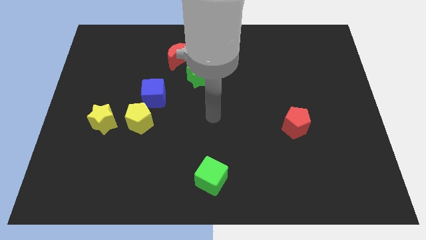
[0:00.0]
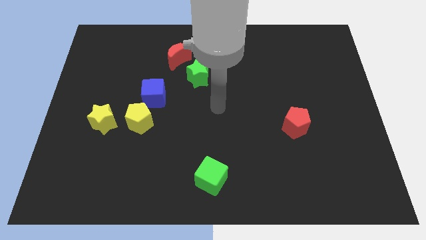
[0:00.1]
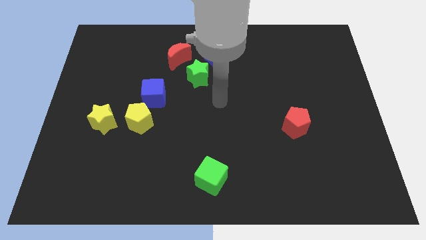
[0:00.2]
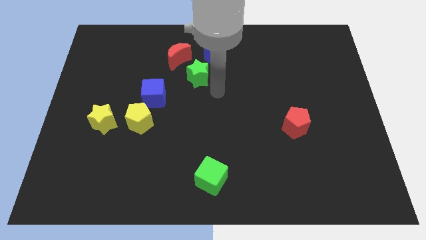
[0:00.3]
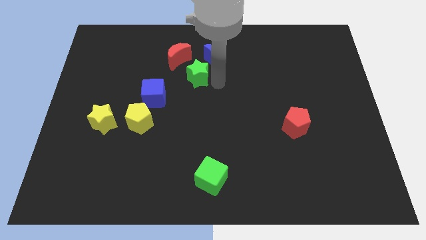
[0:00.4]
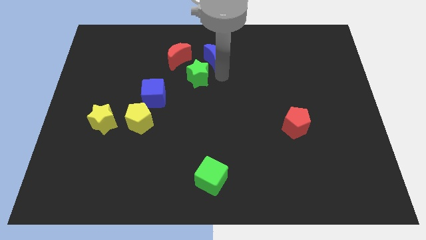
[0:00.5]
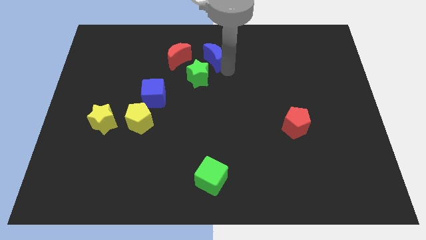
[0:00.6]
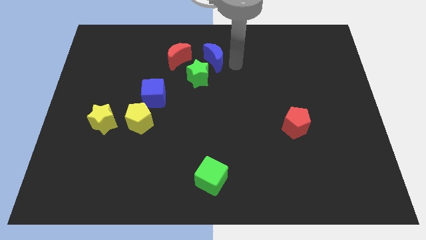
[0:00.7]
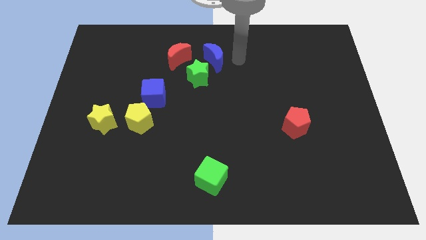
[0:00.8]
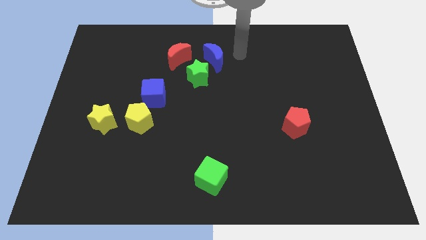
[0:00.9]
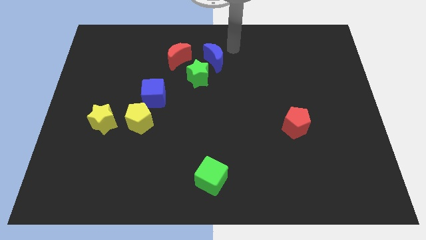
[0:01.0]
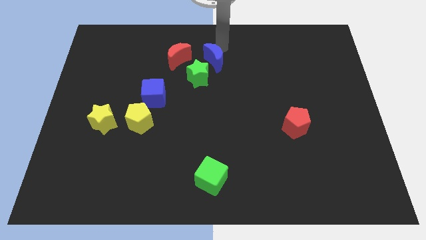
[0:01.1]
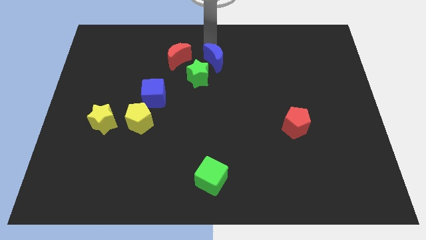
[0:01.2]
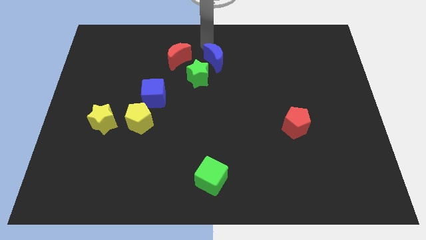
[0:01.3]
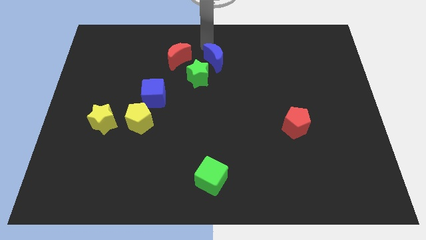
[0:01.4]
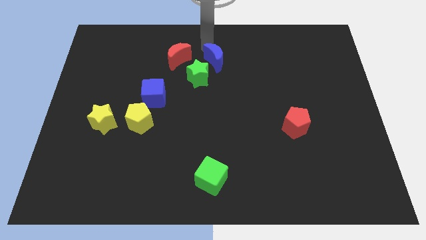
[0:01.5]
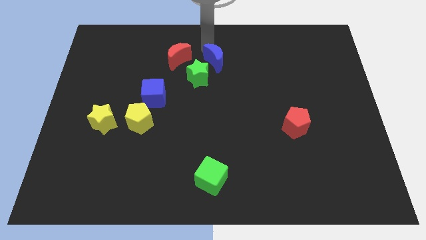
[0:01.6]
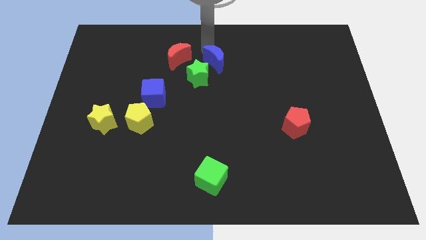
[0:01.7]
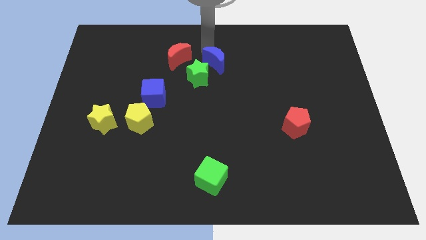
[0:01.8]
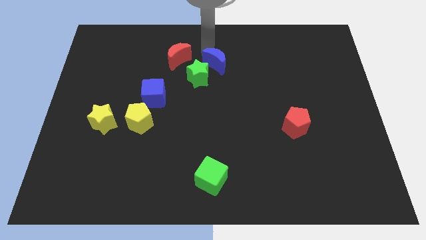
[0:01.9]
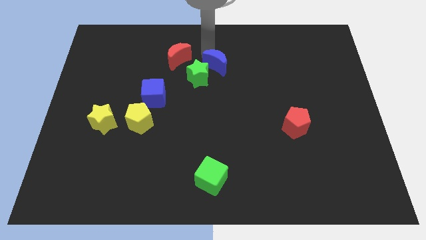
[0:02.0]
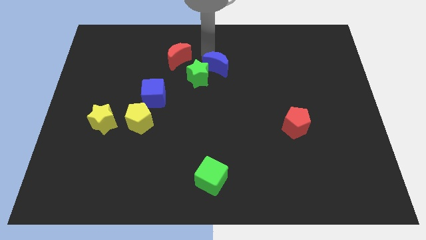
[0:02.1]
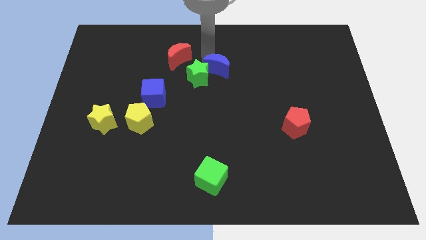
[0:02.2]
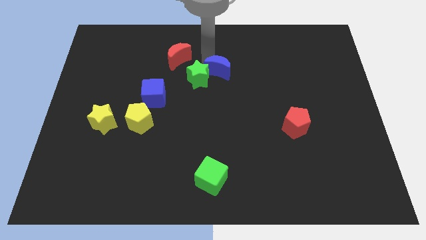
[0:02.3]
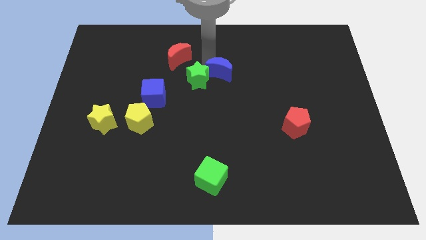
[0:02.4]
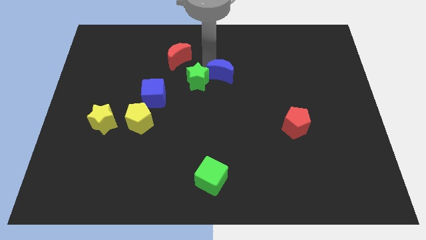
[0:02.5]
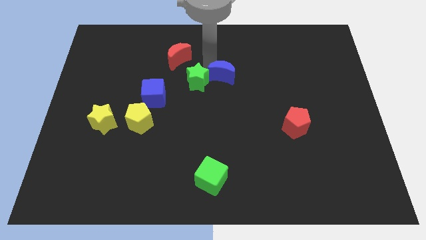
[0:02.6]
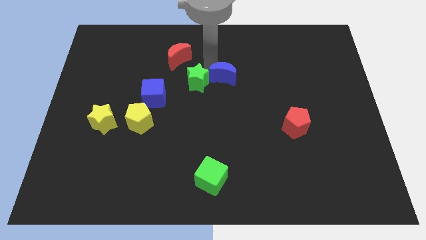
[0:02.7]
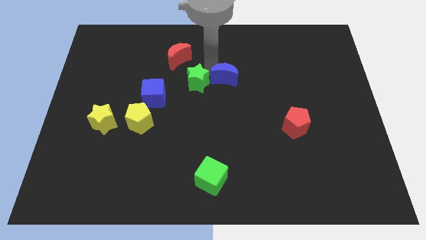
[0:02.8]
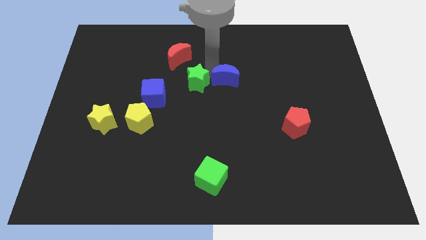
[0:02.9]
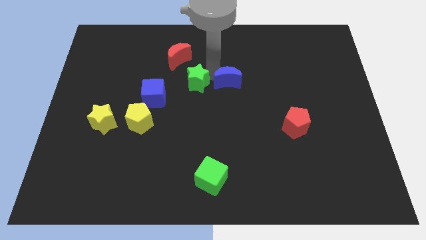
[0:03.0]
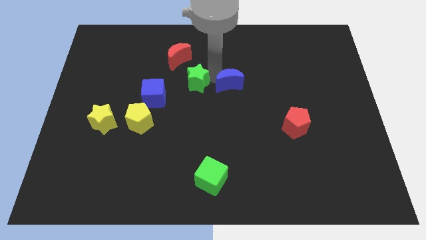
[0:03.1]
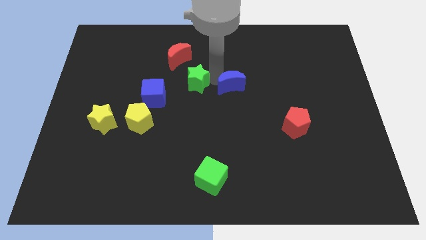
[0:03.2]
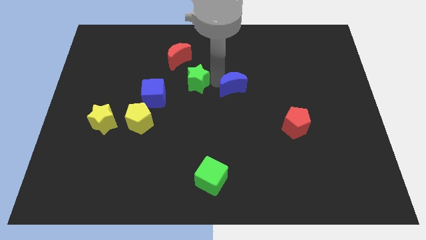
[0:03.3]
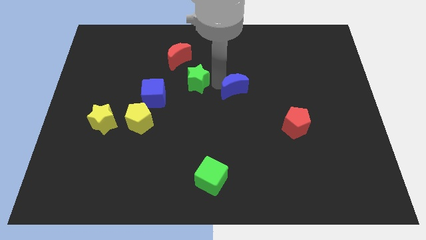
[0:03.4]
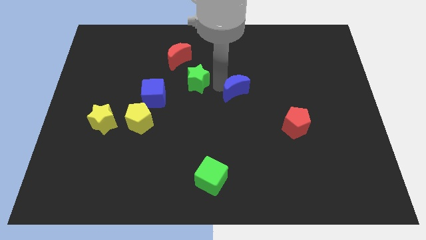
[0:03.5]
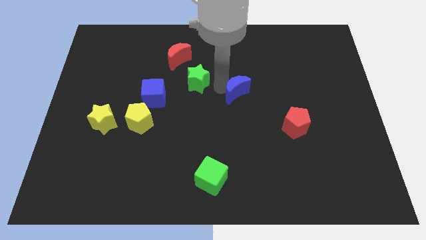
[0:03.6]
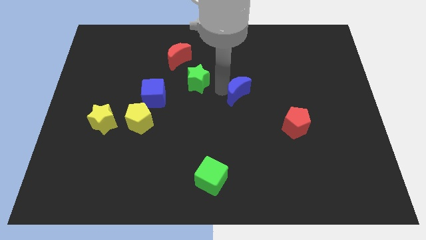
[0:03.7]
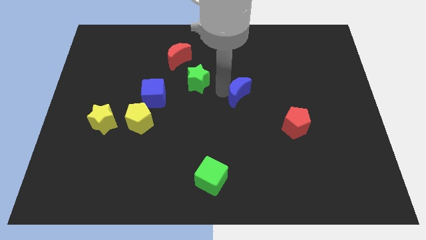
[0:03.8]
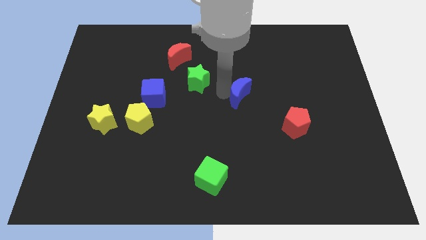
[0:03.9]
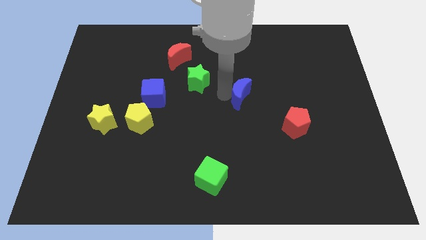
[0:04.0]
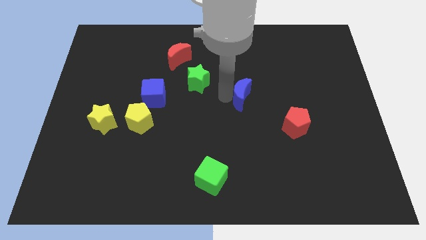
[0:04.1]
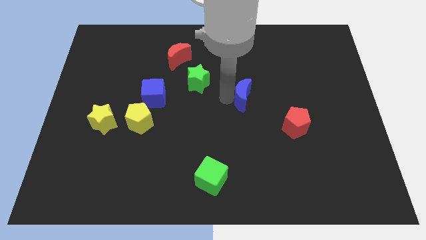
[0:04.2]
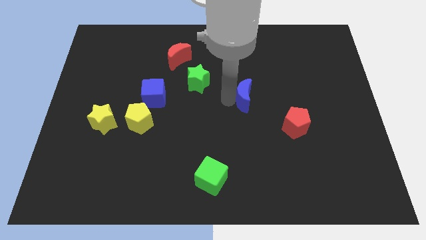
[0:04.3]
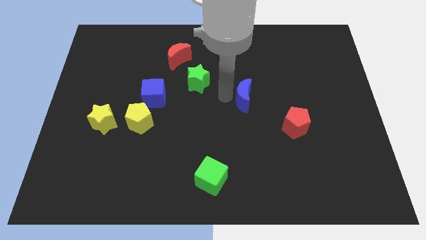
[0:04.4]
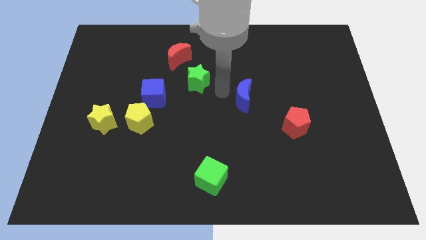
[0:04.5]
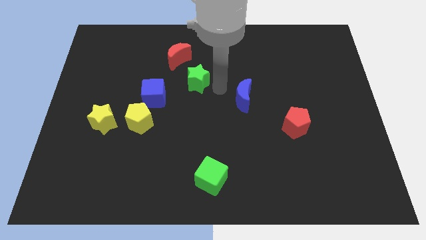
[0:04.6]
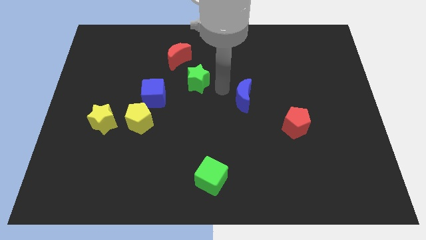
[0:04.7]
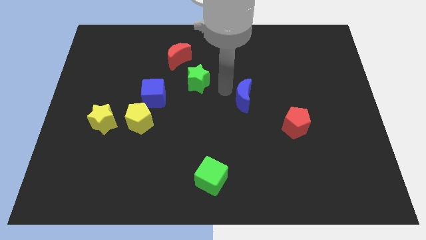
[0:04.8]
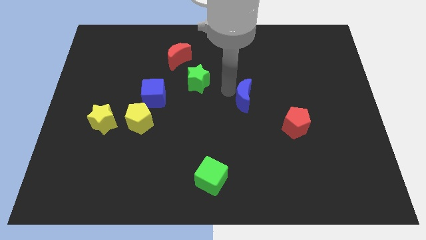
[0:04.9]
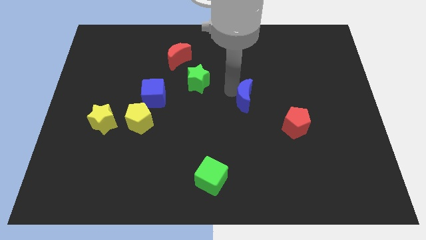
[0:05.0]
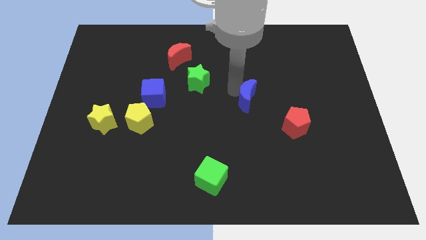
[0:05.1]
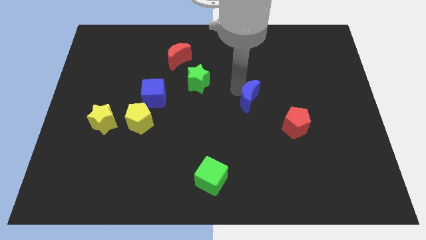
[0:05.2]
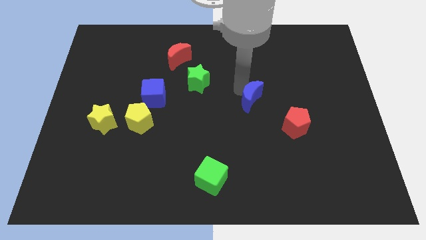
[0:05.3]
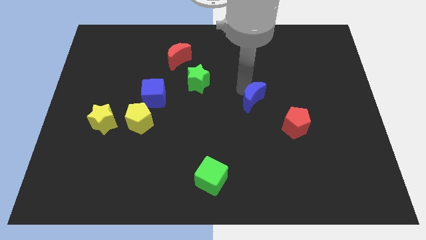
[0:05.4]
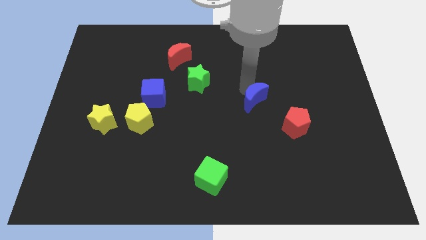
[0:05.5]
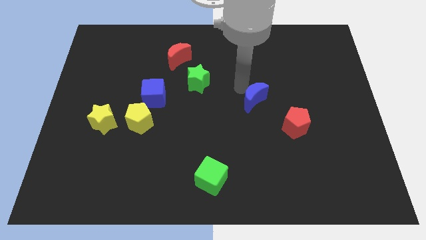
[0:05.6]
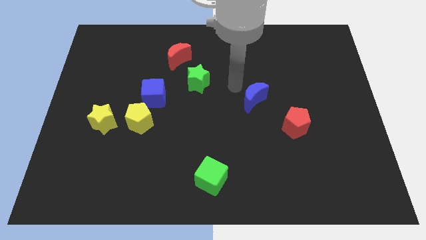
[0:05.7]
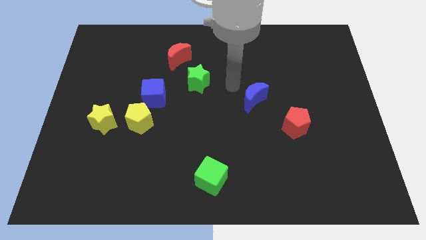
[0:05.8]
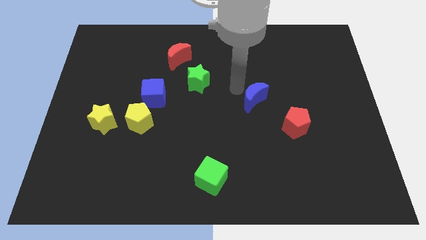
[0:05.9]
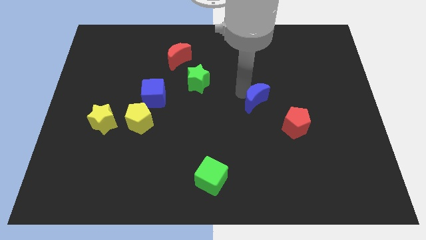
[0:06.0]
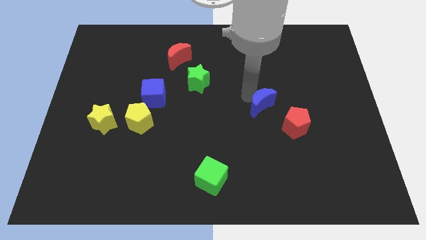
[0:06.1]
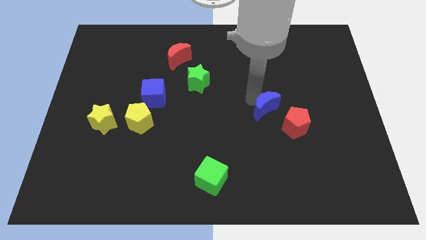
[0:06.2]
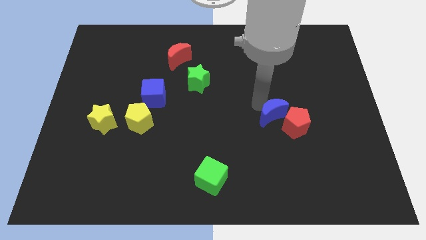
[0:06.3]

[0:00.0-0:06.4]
move the blue moon next to the red pentagon

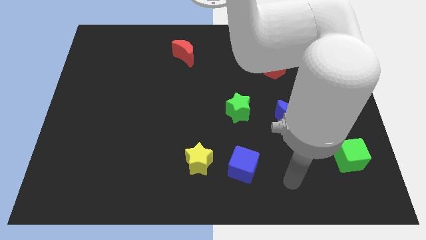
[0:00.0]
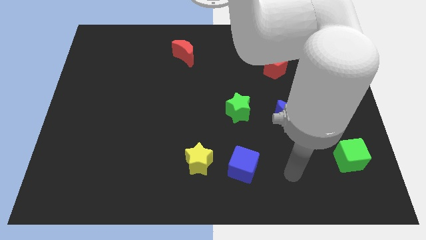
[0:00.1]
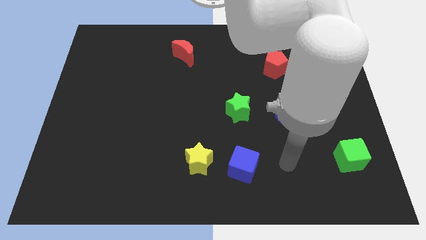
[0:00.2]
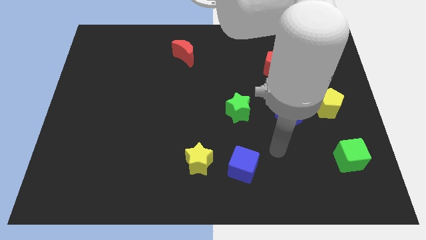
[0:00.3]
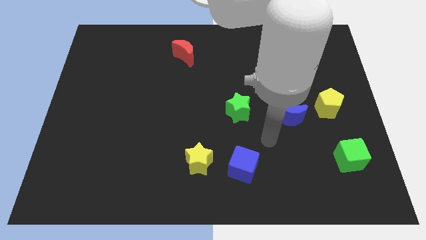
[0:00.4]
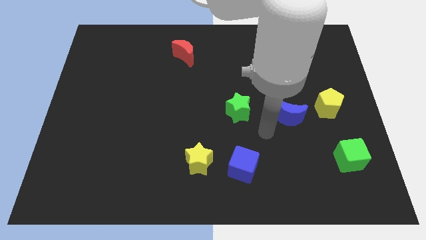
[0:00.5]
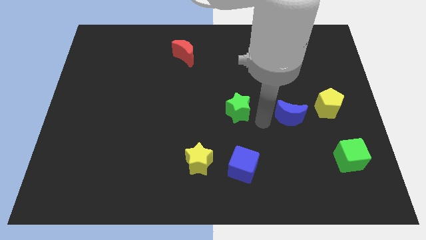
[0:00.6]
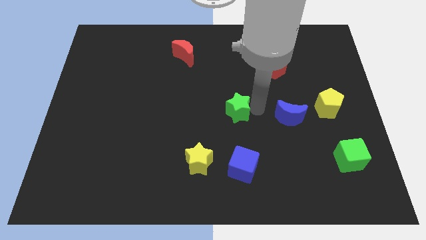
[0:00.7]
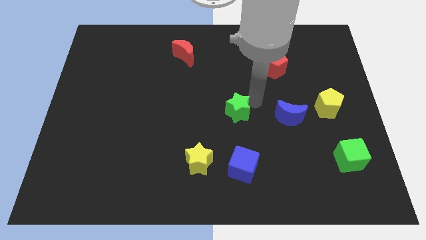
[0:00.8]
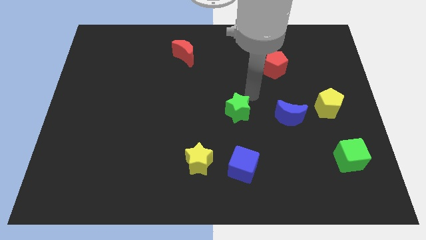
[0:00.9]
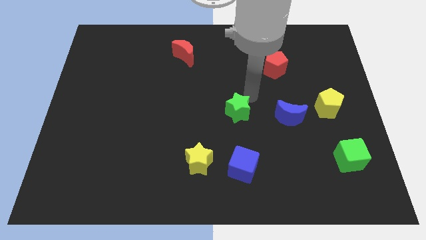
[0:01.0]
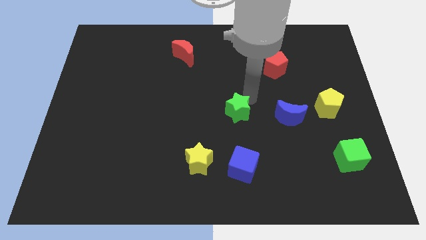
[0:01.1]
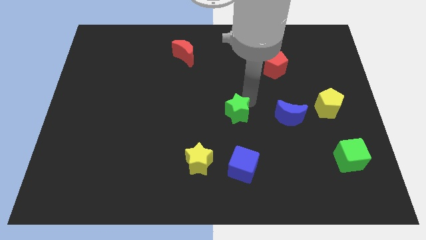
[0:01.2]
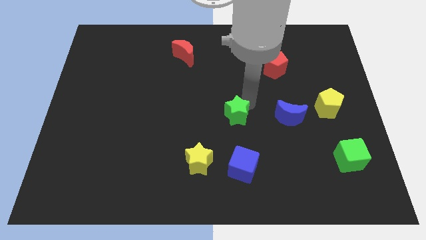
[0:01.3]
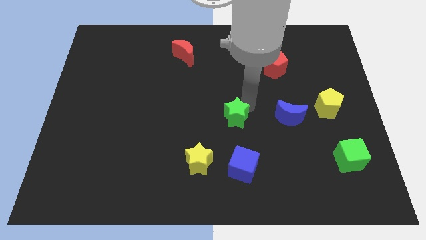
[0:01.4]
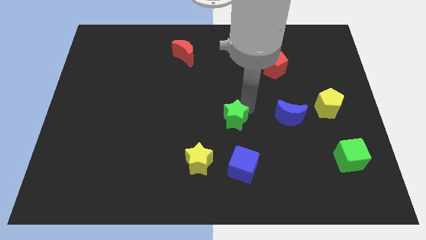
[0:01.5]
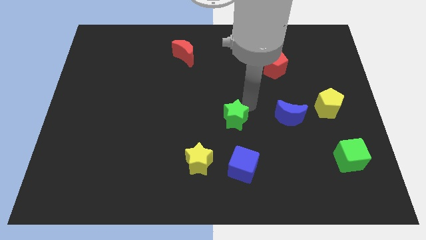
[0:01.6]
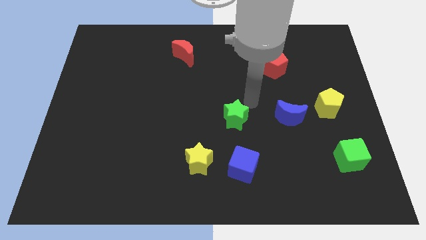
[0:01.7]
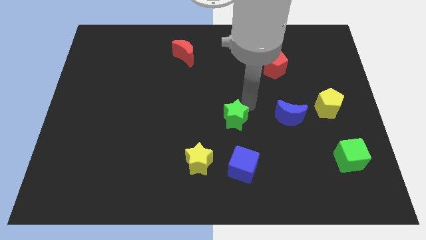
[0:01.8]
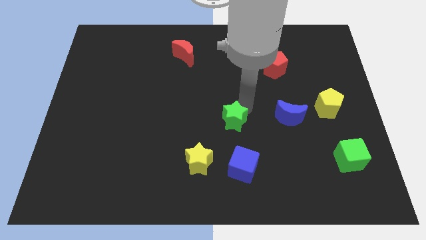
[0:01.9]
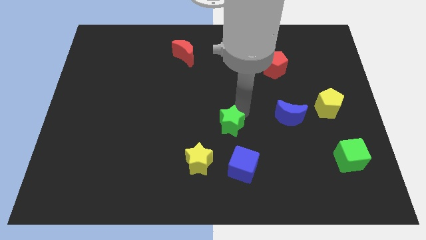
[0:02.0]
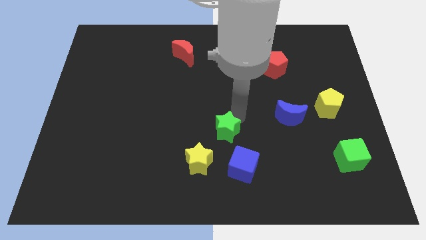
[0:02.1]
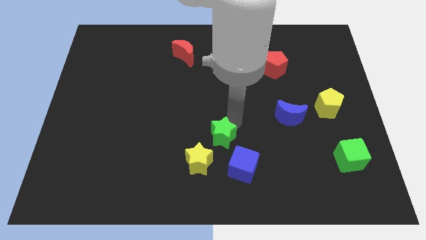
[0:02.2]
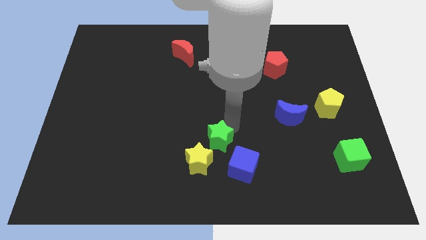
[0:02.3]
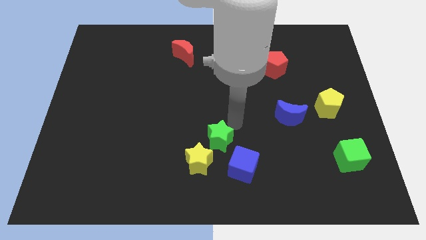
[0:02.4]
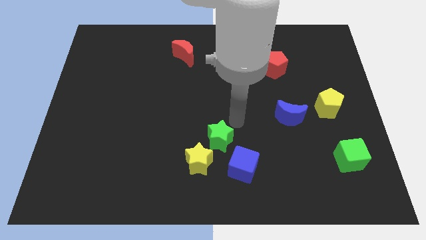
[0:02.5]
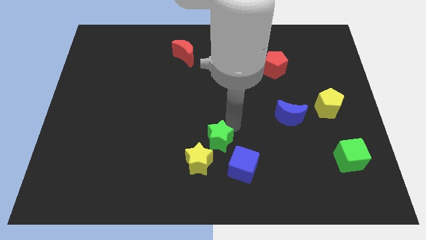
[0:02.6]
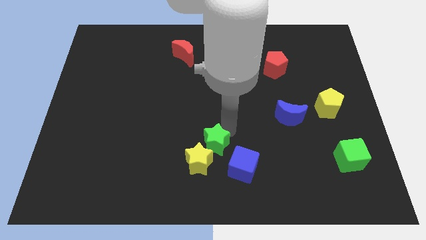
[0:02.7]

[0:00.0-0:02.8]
put the green star next to the yellow star
